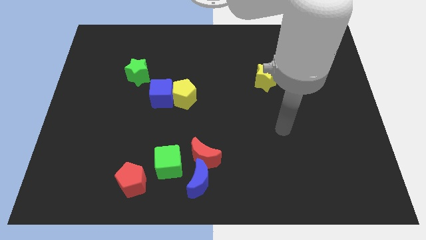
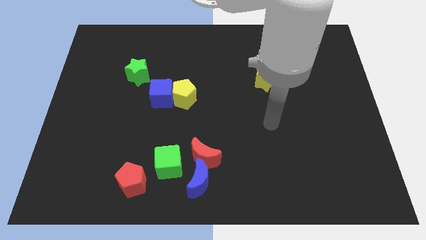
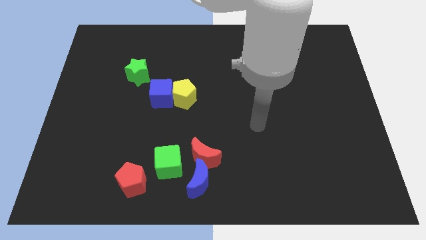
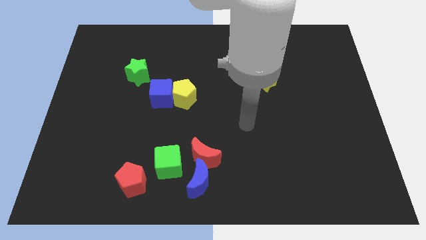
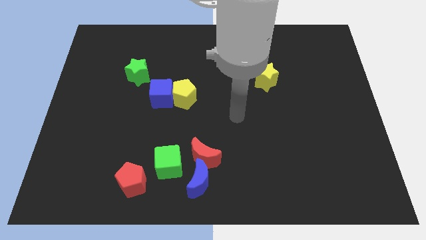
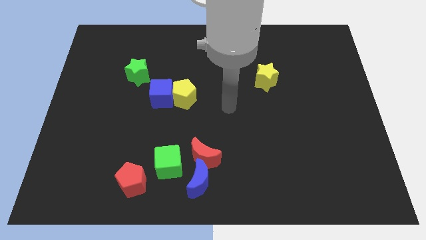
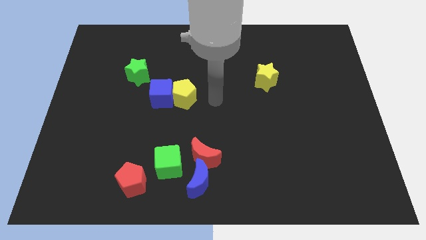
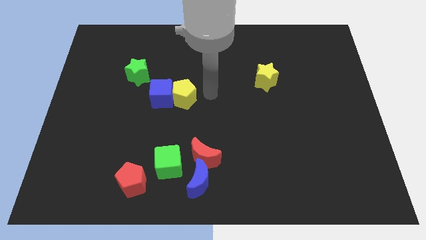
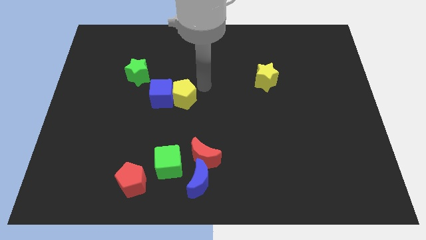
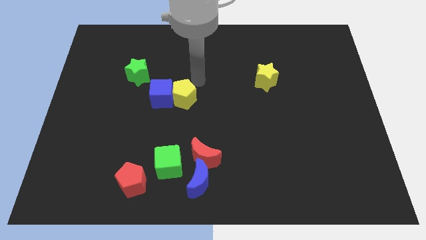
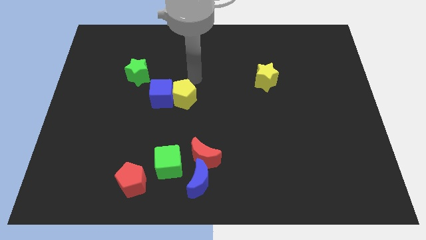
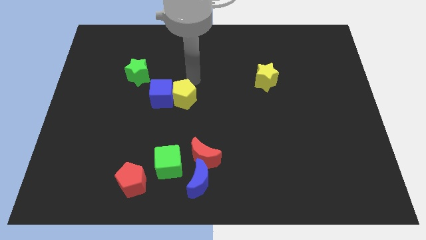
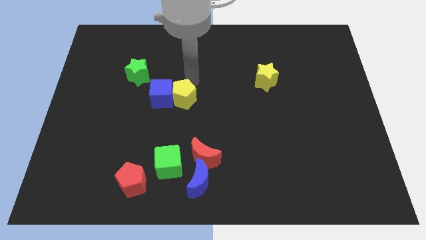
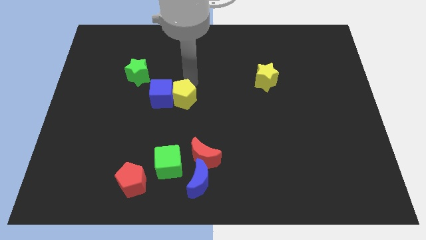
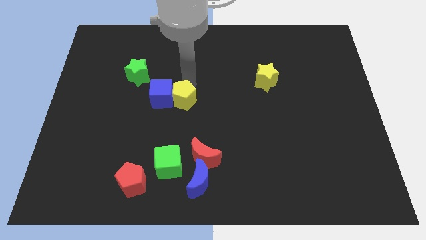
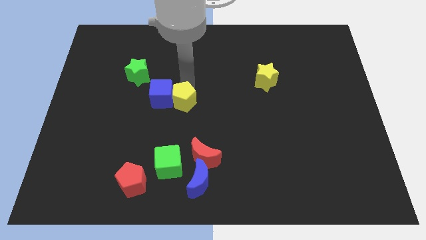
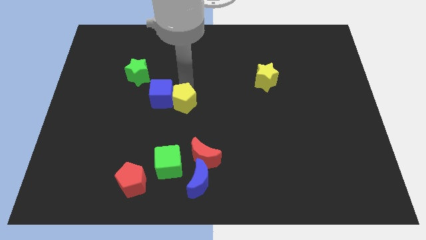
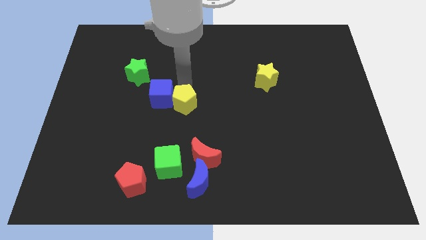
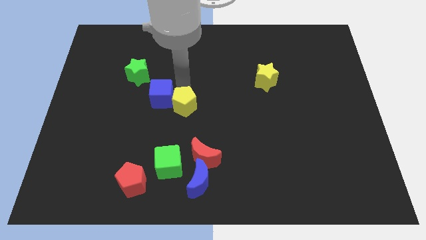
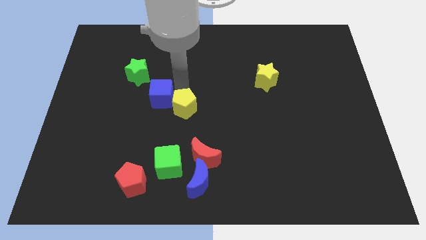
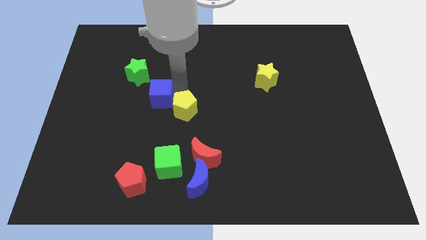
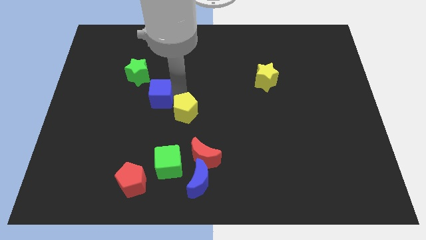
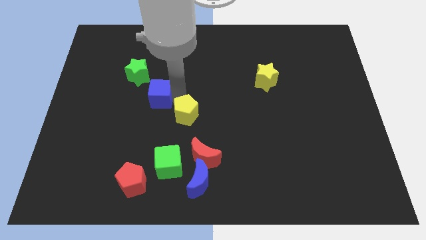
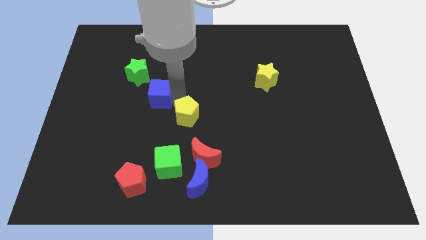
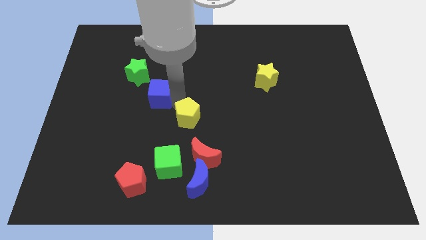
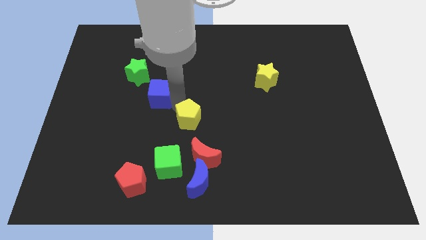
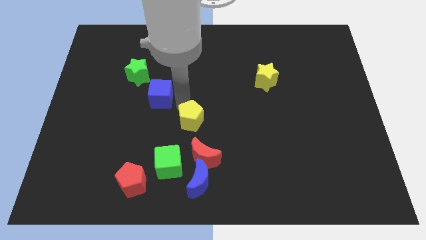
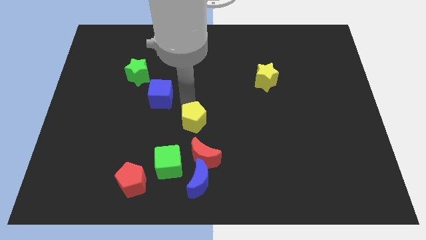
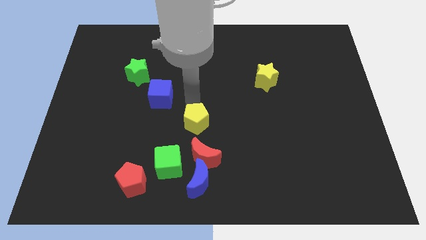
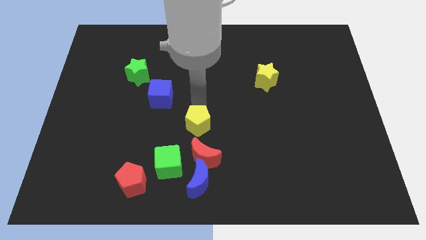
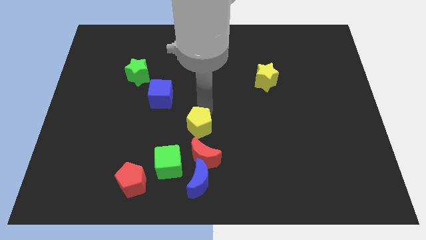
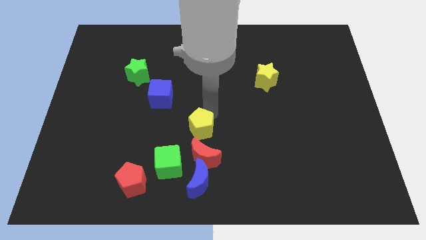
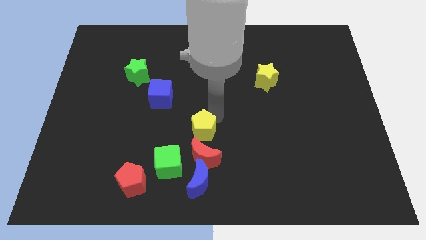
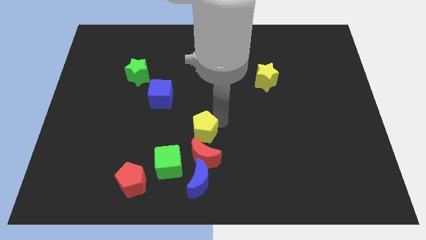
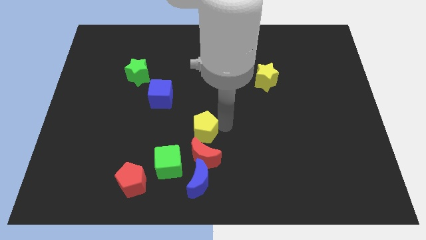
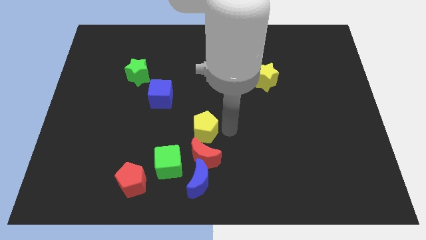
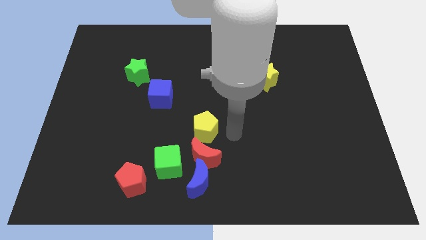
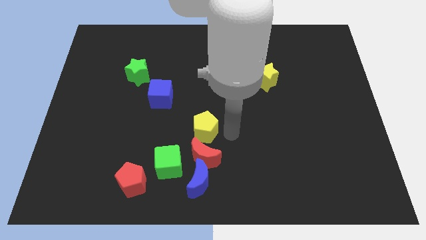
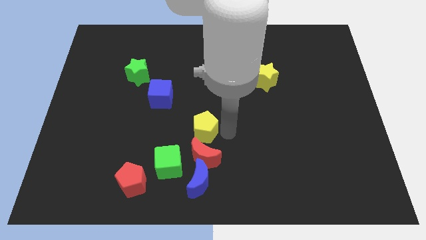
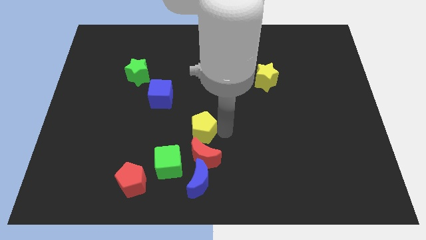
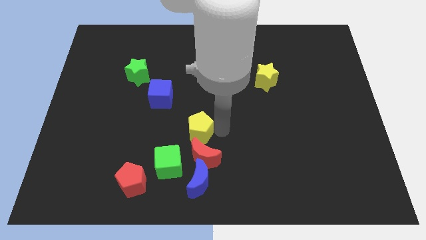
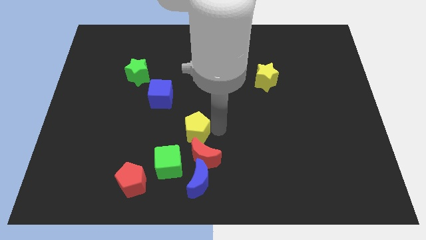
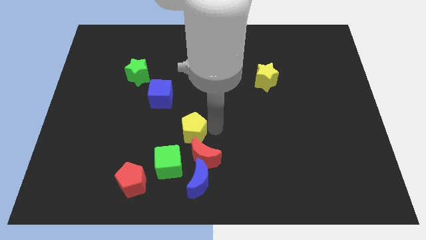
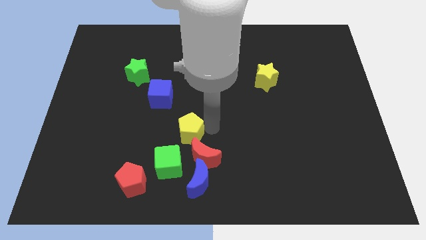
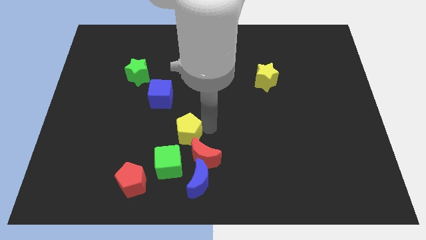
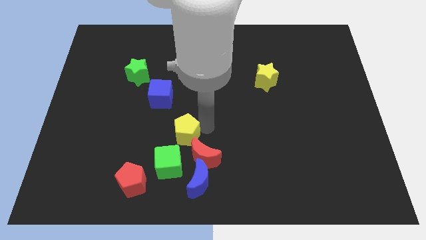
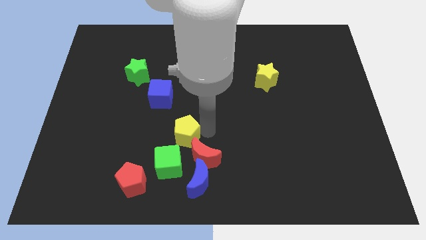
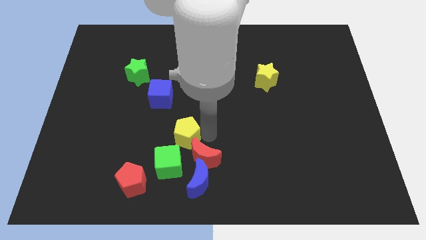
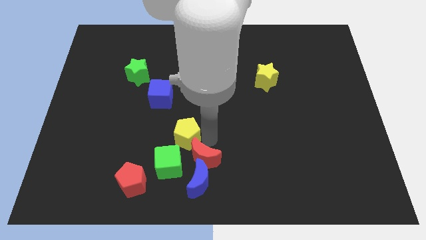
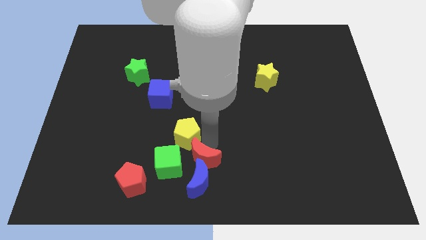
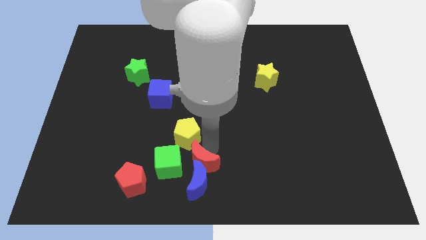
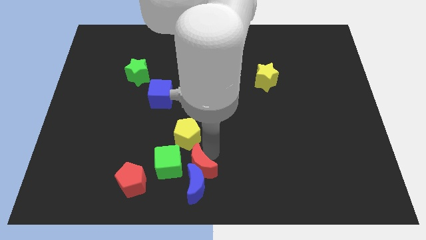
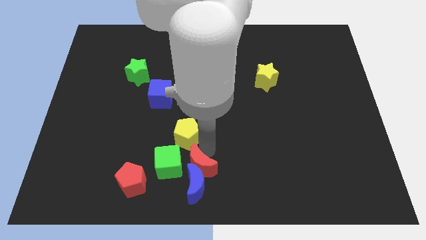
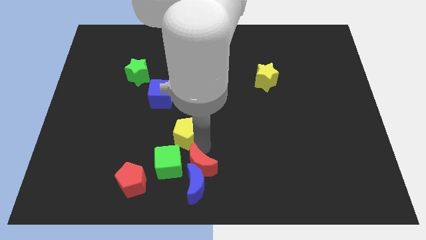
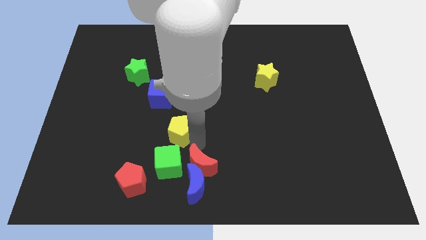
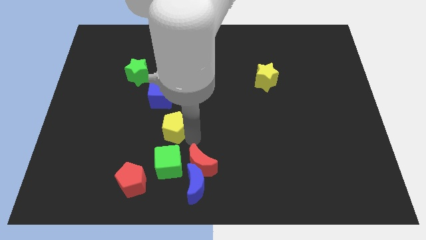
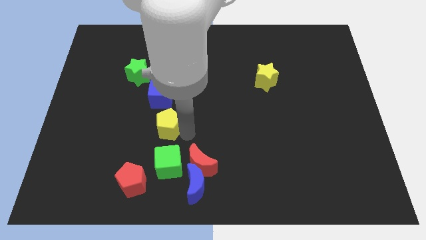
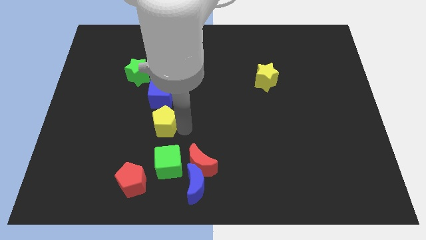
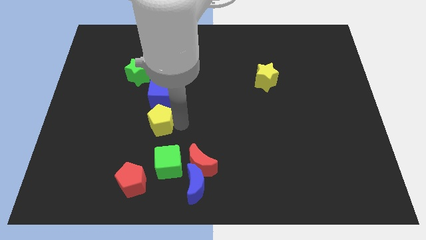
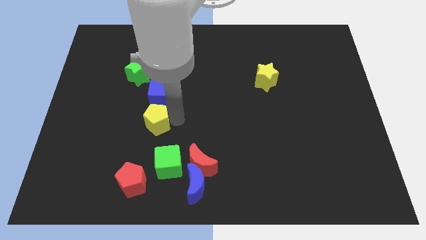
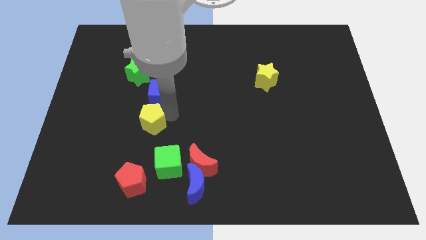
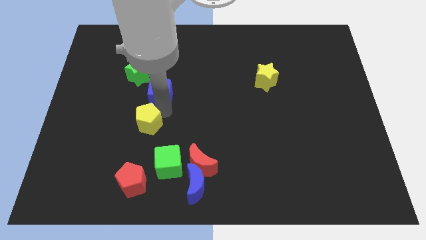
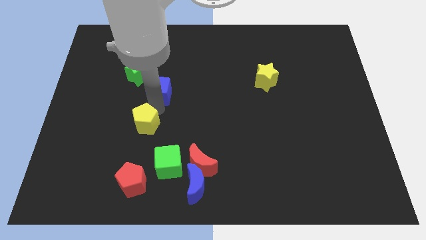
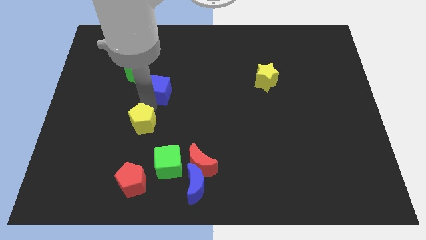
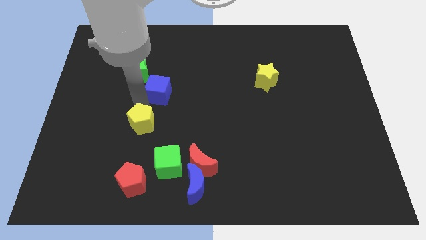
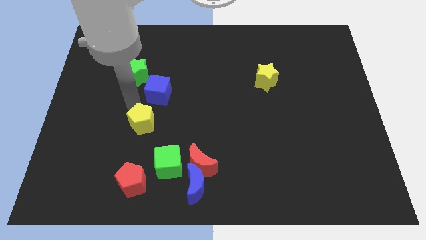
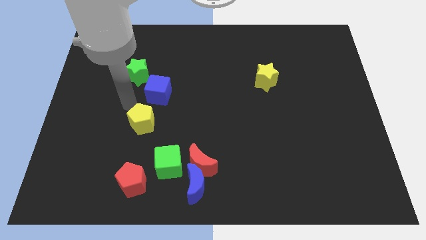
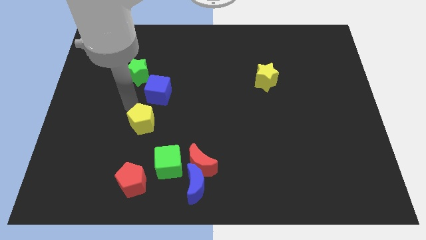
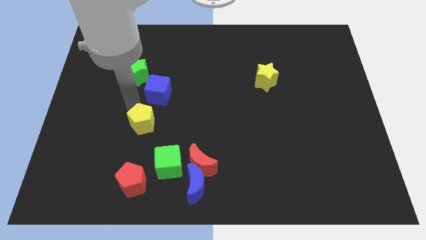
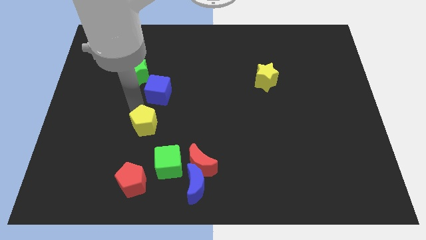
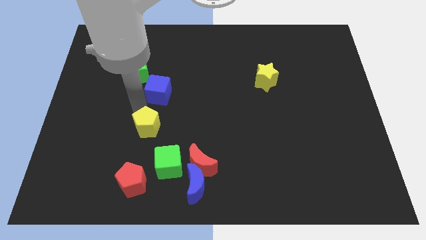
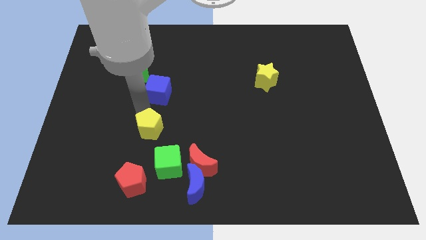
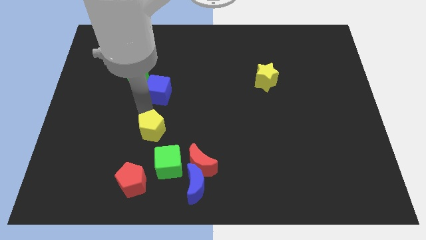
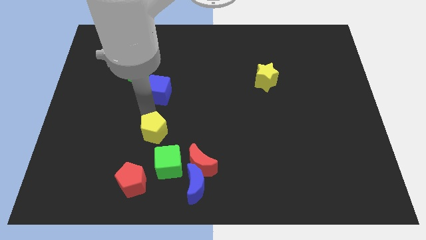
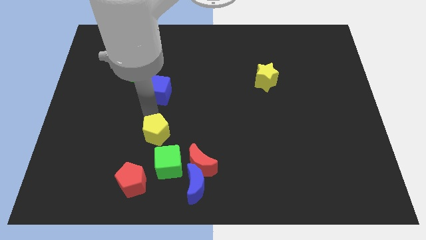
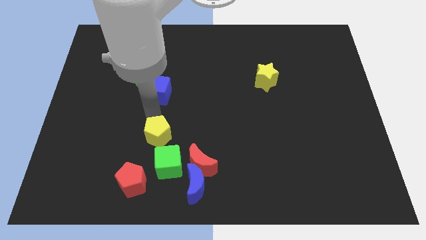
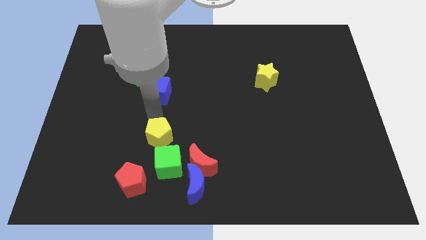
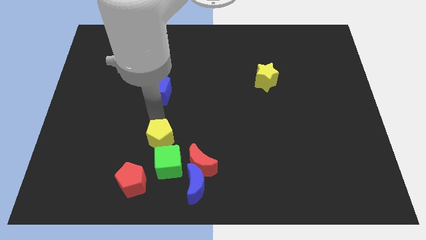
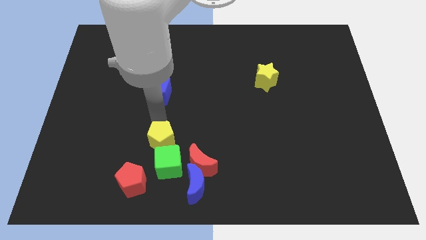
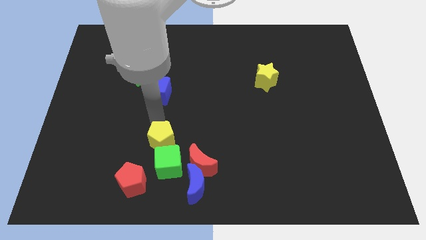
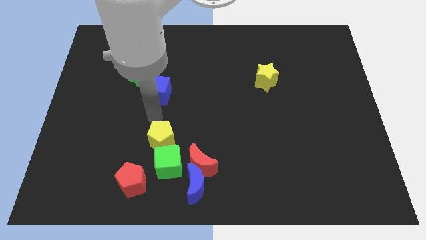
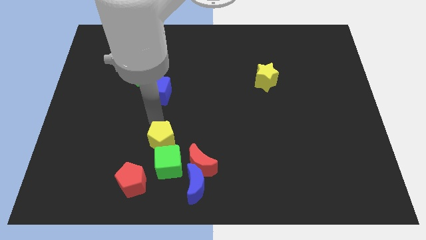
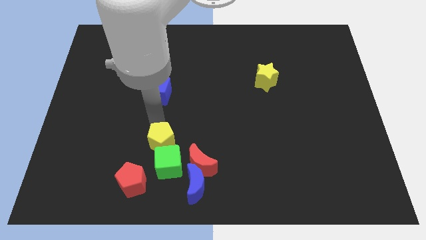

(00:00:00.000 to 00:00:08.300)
put the yellow pentagon towards the green cube
